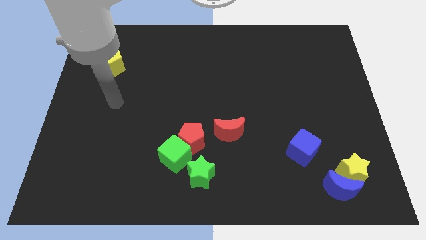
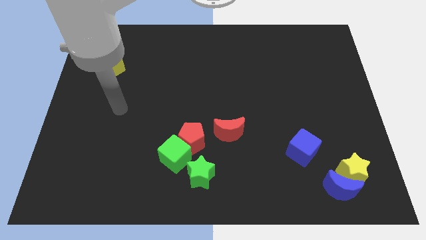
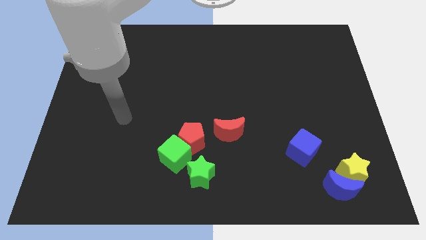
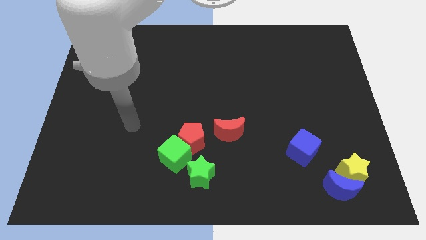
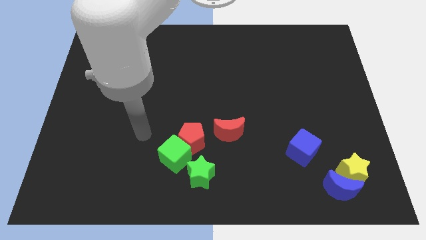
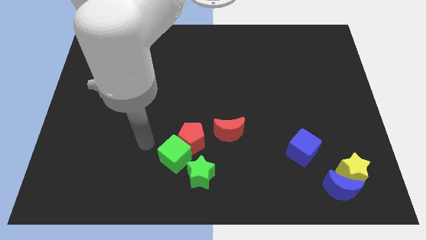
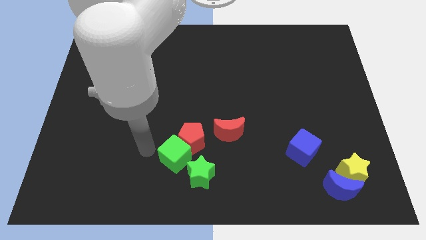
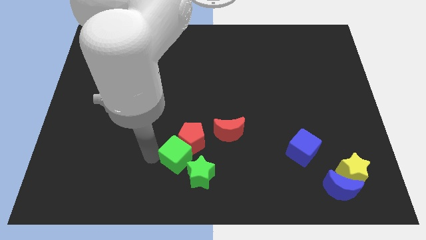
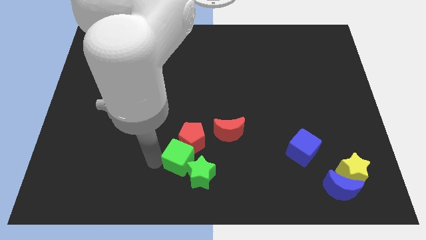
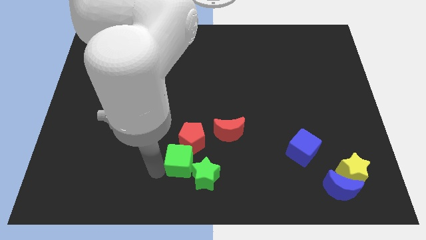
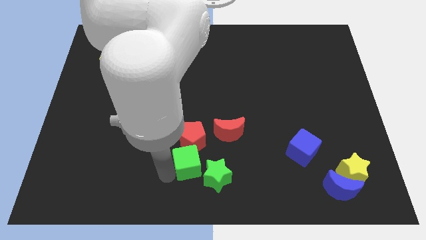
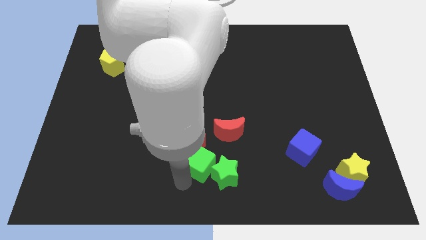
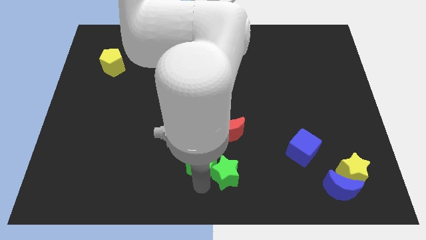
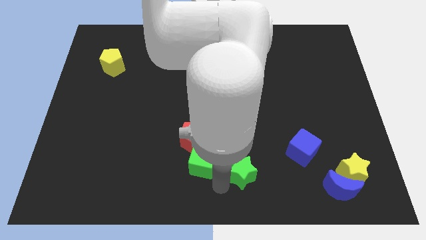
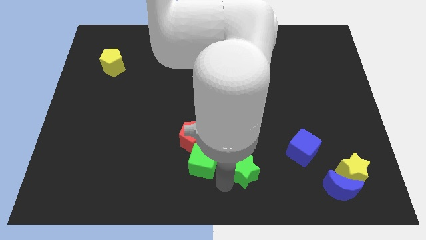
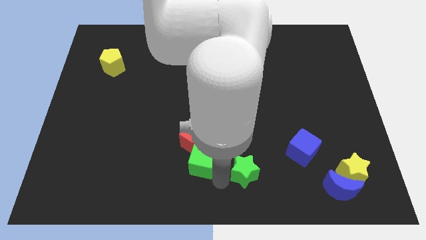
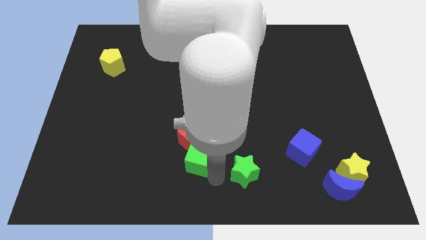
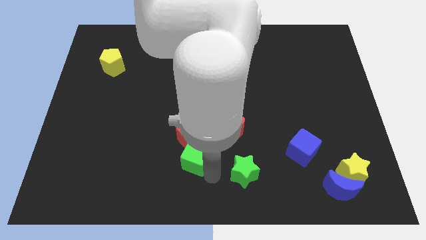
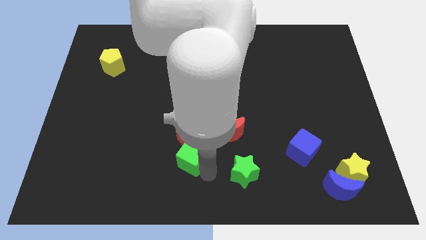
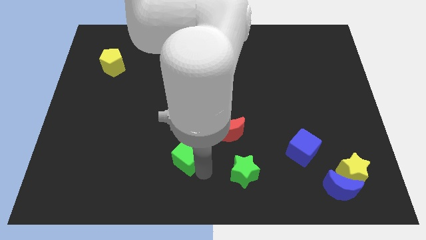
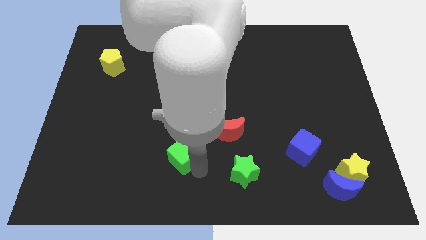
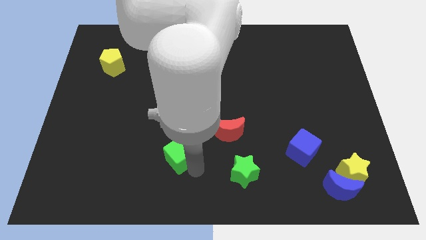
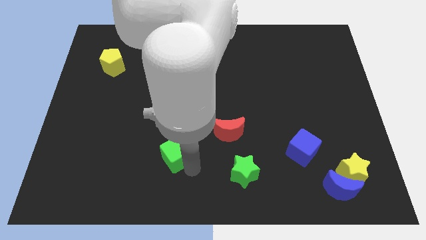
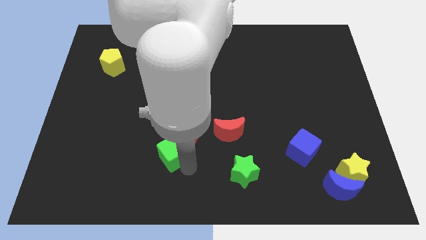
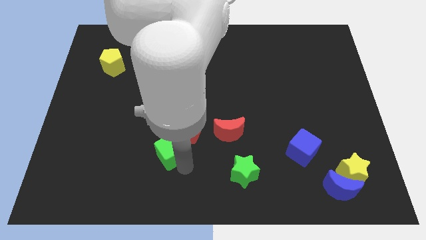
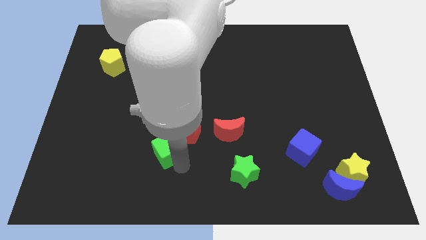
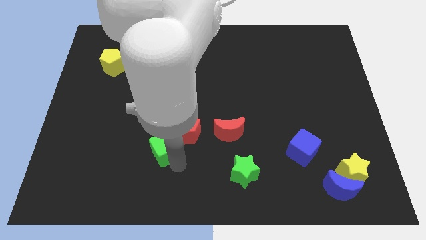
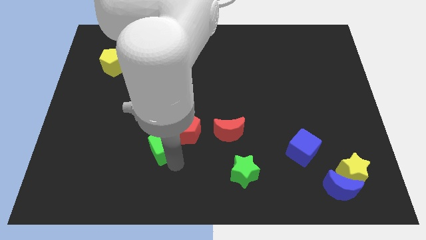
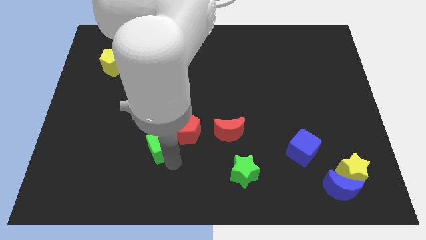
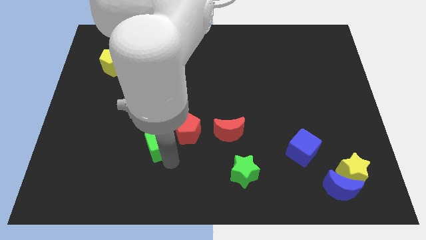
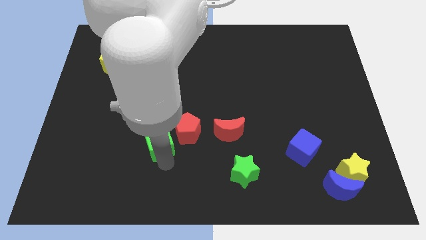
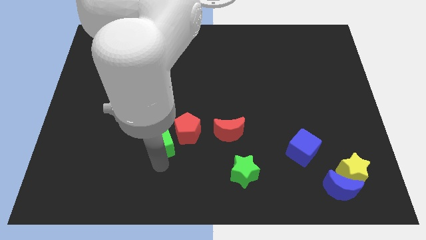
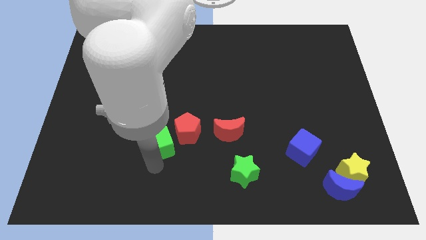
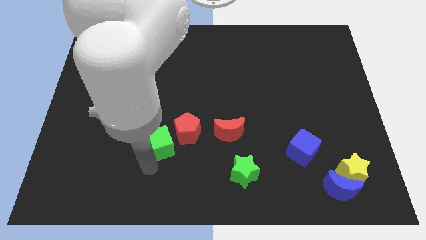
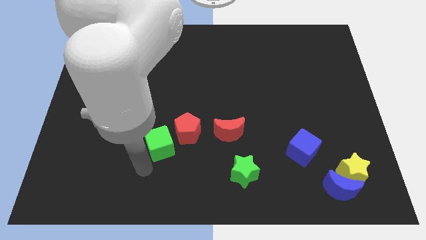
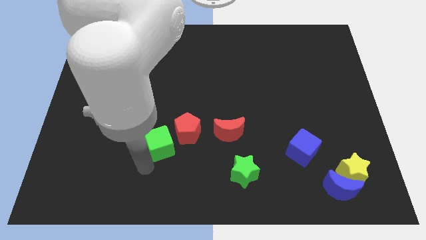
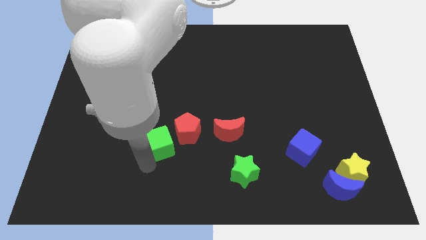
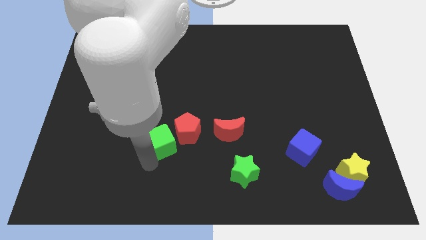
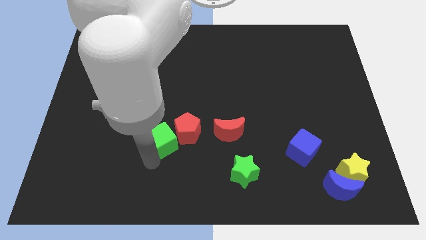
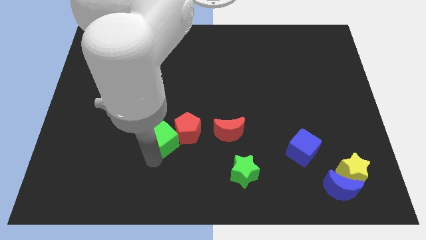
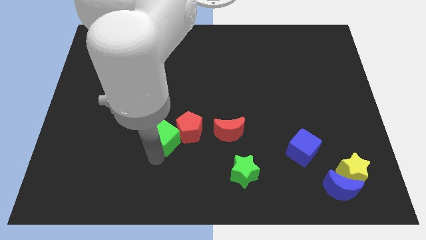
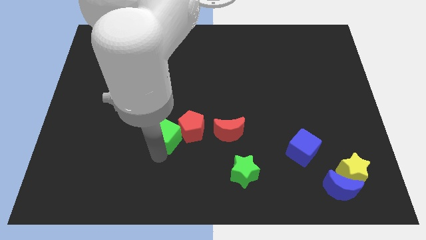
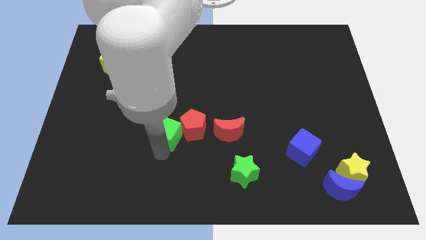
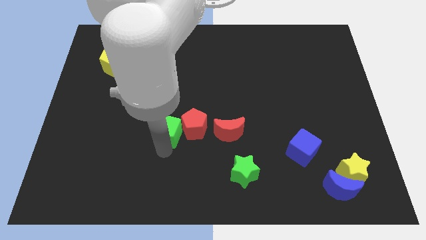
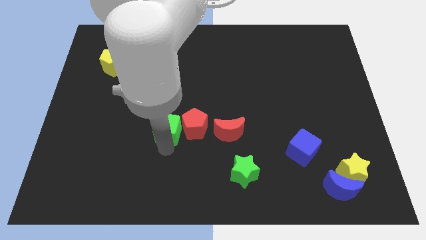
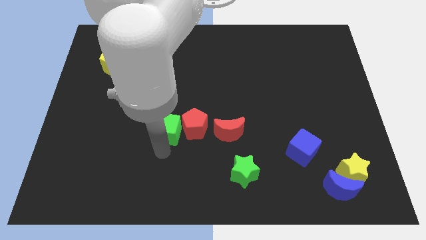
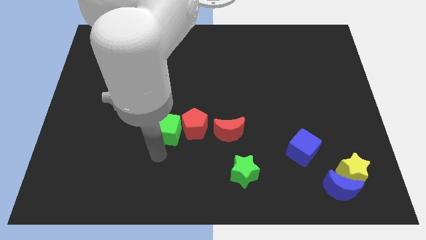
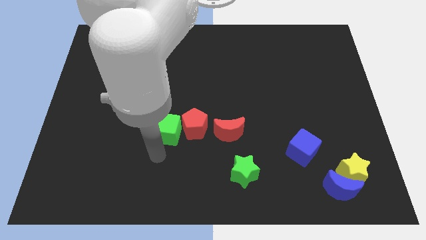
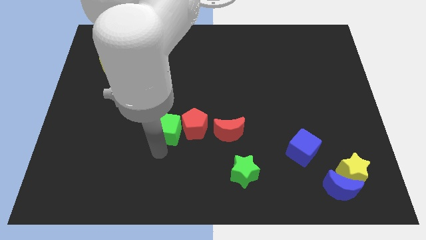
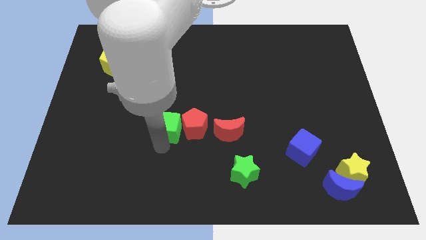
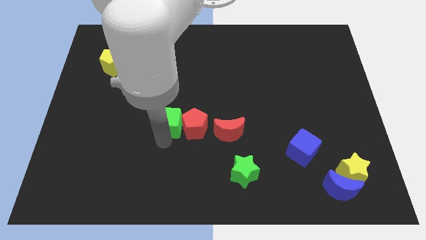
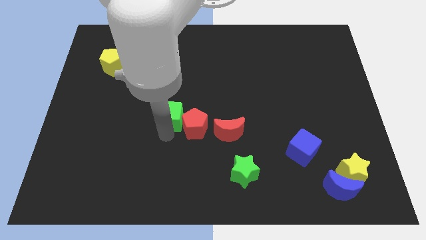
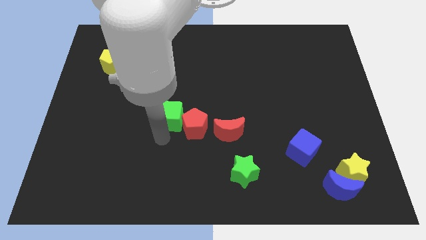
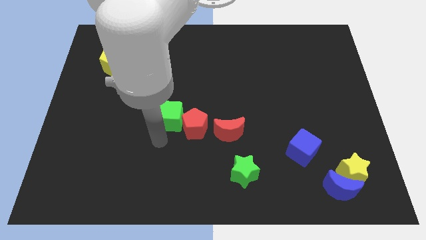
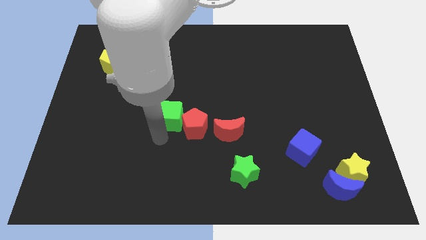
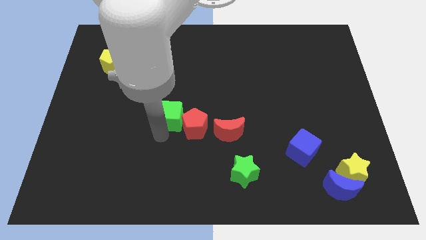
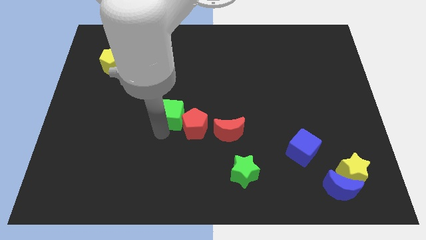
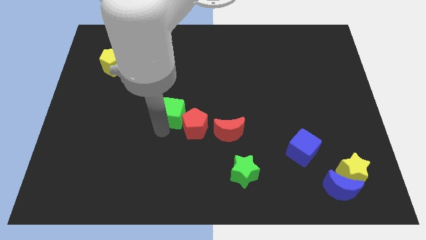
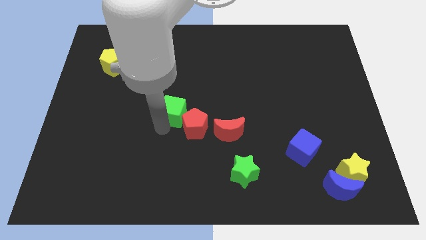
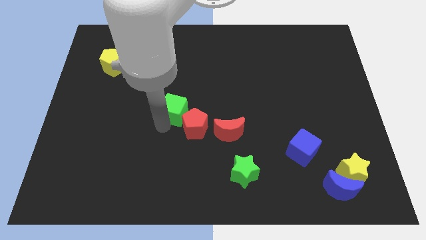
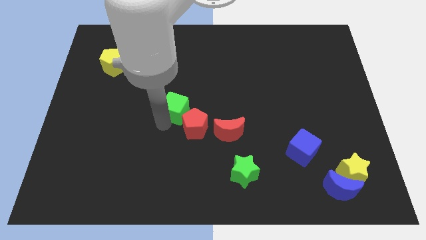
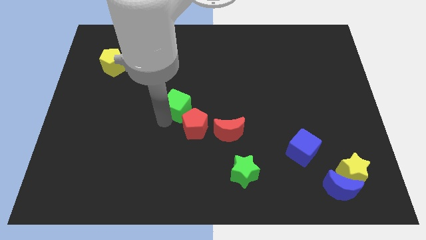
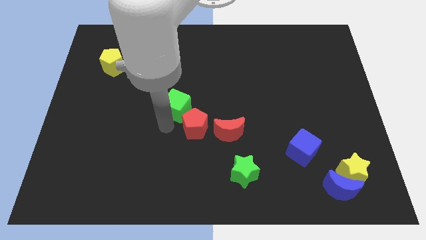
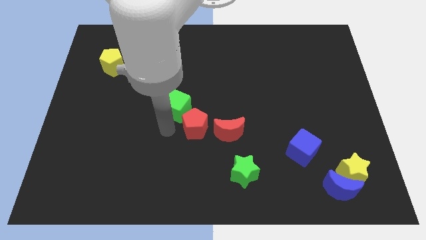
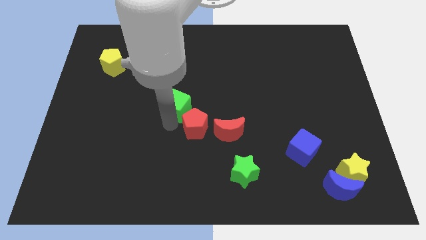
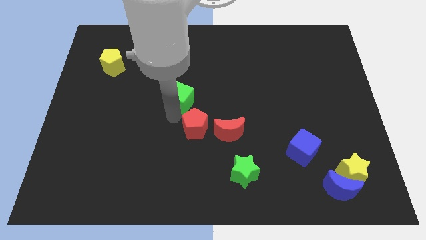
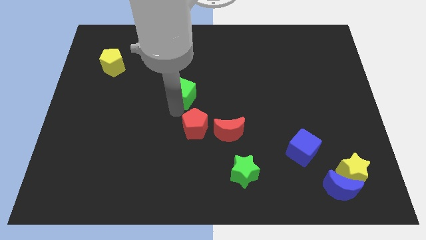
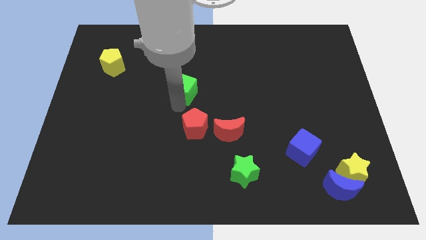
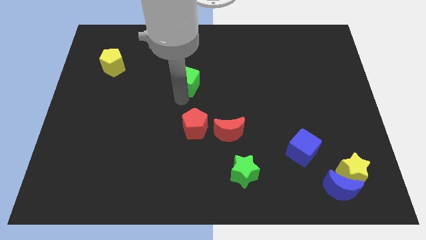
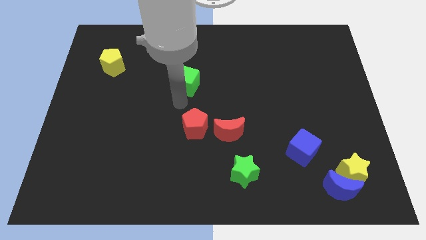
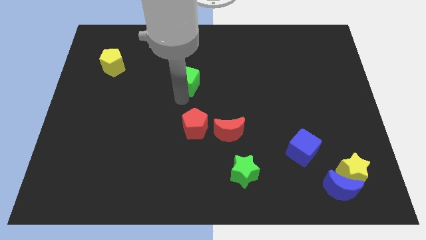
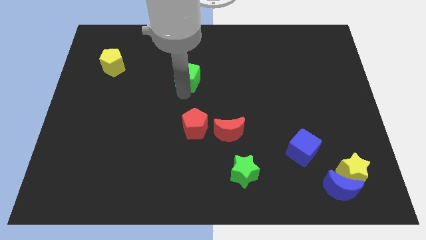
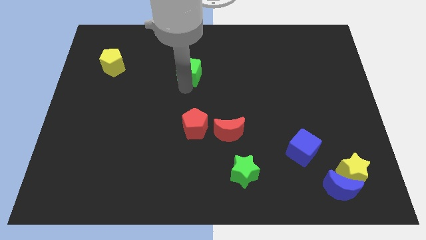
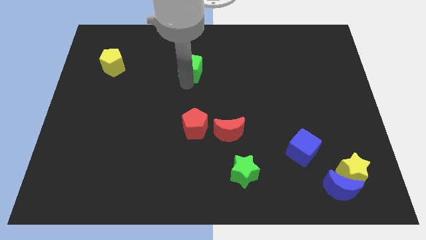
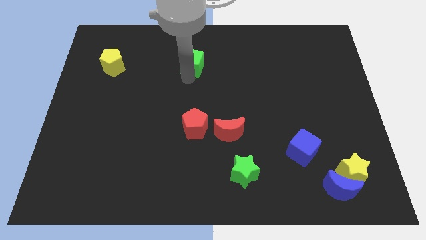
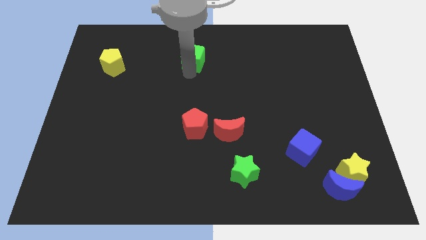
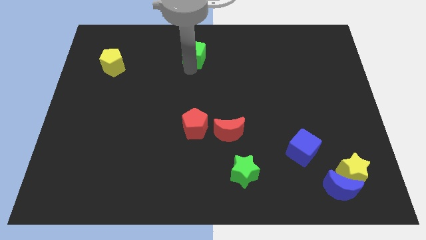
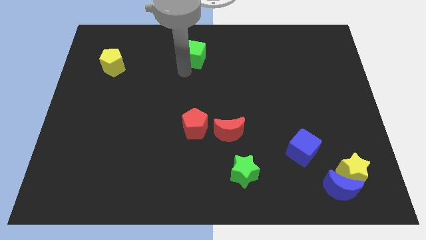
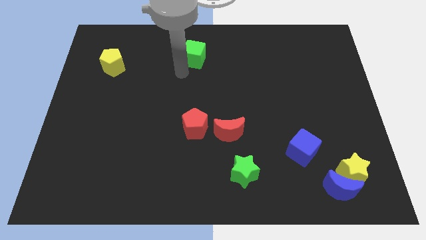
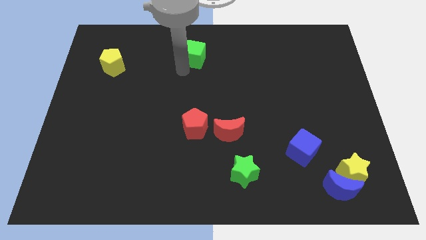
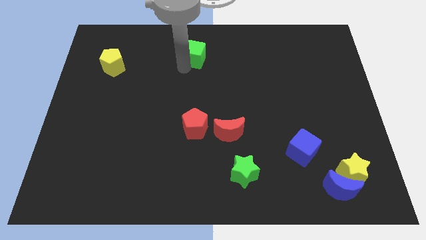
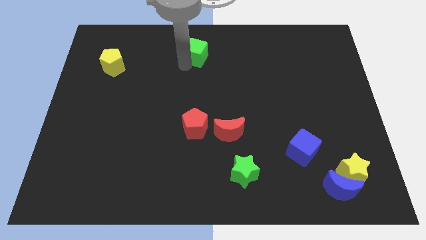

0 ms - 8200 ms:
push the green cube to the towards your base
